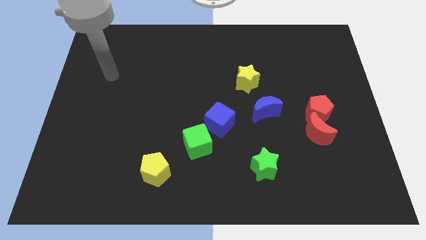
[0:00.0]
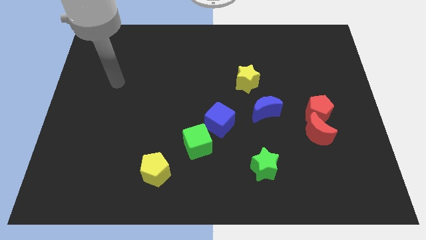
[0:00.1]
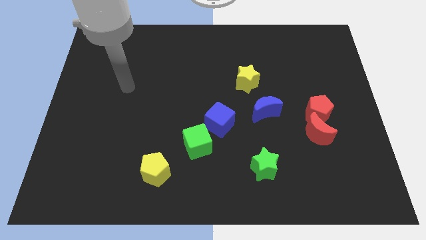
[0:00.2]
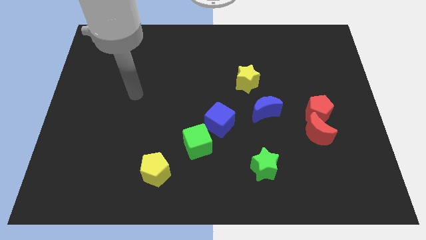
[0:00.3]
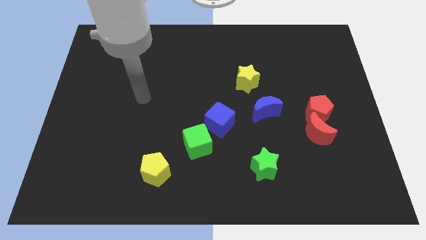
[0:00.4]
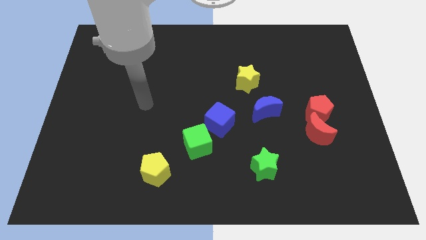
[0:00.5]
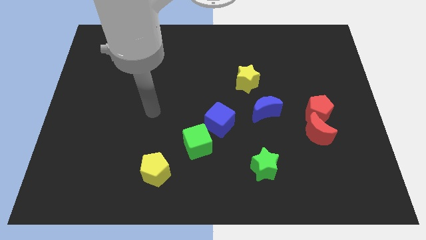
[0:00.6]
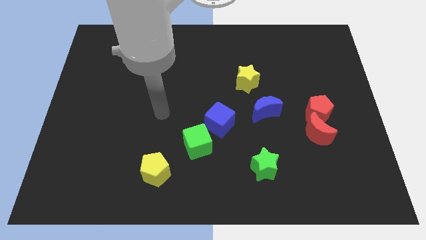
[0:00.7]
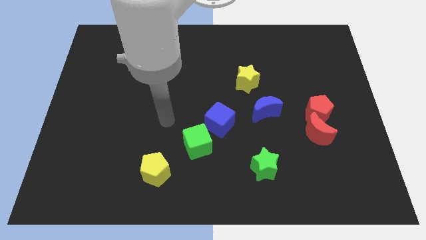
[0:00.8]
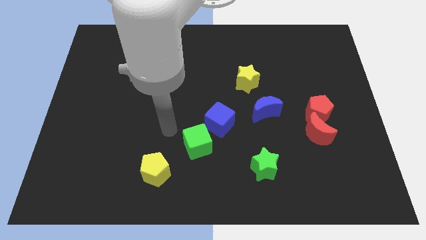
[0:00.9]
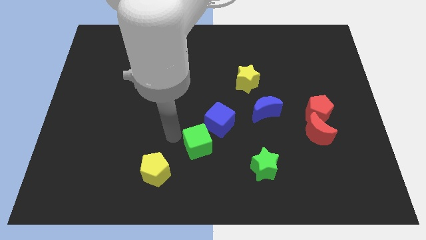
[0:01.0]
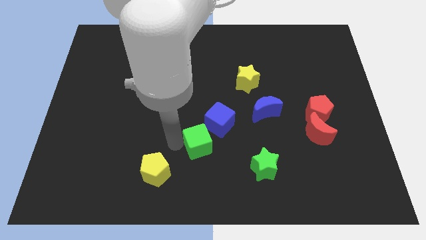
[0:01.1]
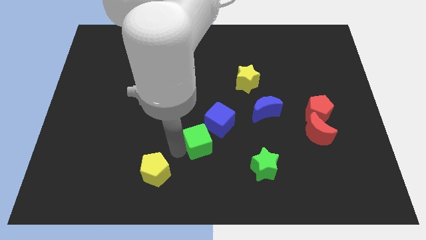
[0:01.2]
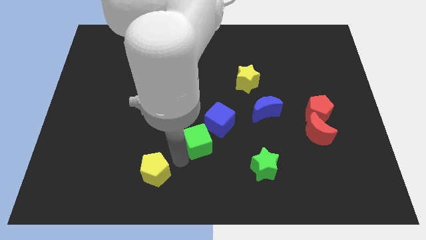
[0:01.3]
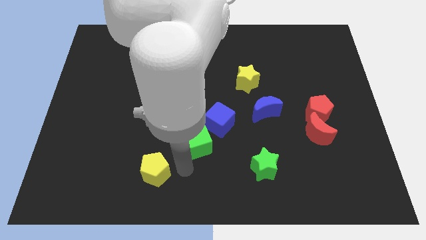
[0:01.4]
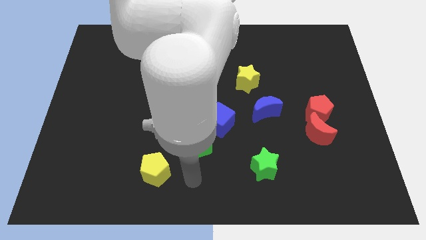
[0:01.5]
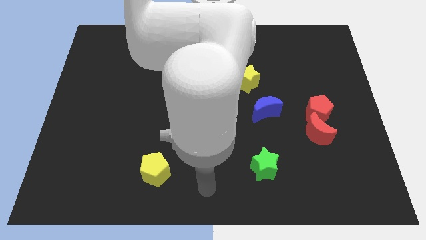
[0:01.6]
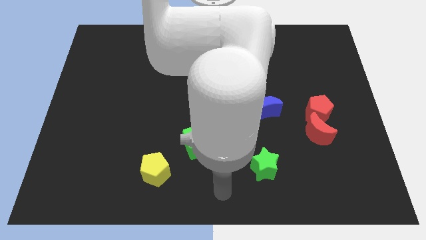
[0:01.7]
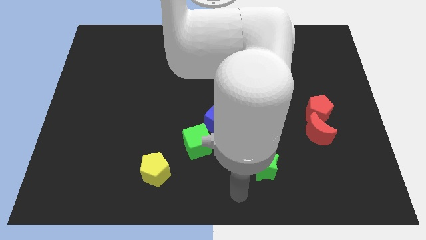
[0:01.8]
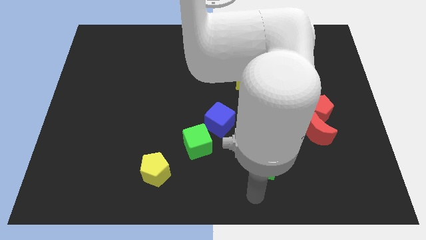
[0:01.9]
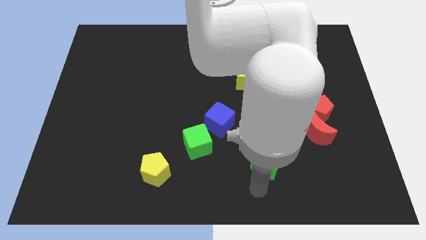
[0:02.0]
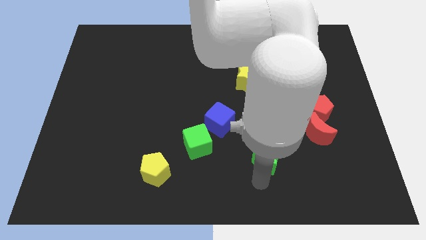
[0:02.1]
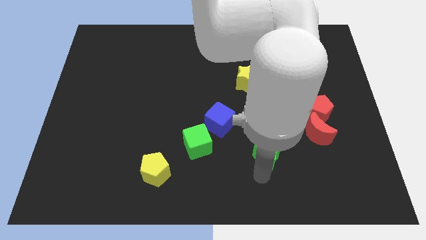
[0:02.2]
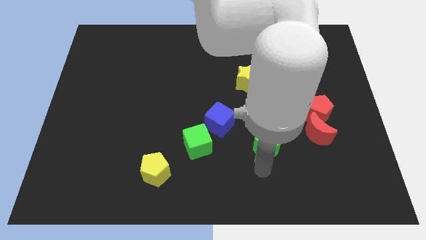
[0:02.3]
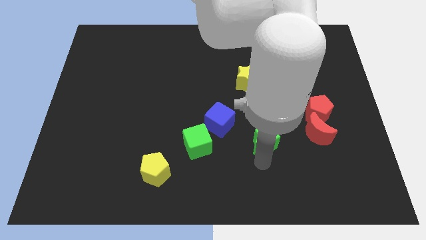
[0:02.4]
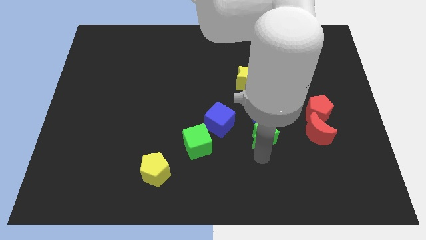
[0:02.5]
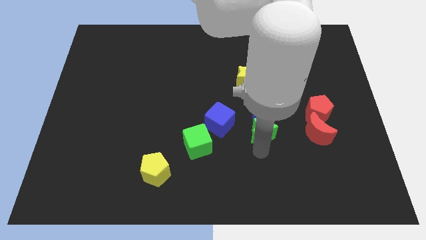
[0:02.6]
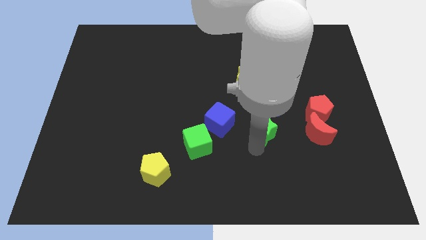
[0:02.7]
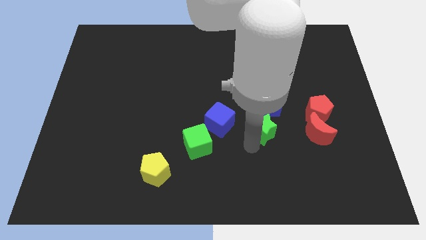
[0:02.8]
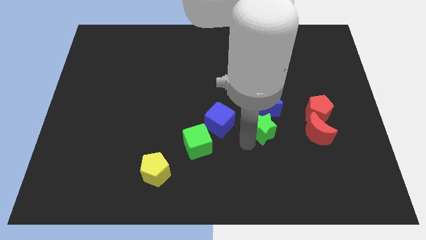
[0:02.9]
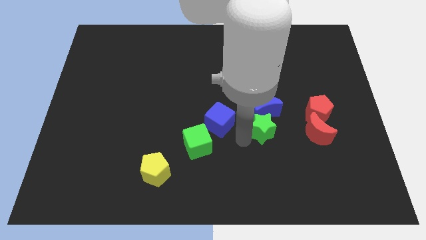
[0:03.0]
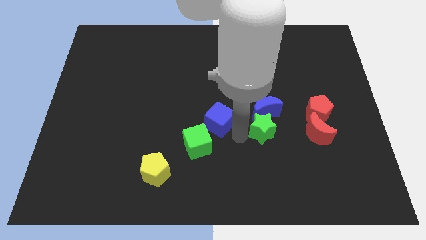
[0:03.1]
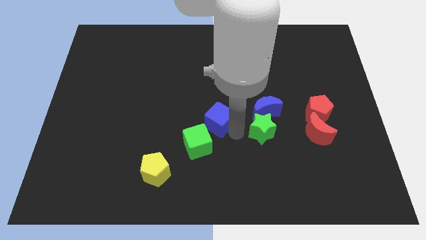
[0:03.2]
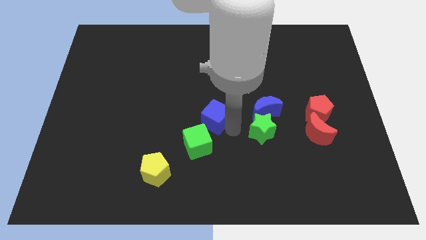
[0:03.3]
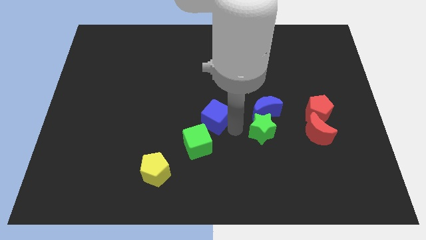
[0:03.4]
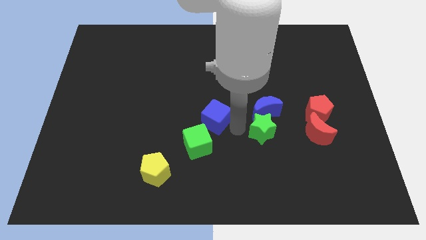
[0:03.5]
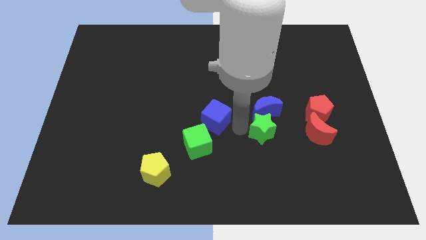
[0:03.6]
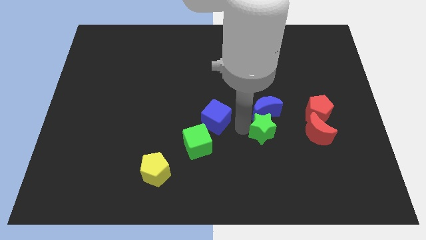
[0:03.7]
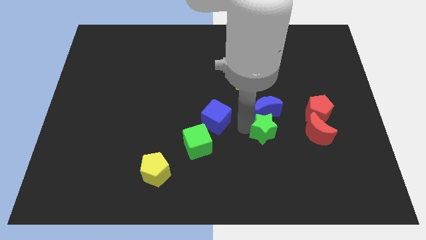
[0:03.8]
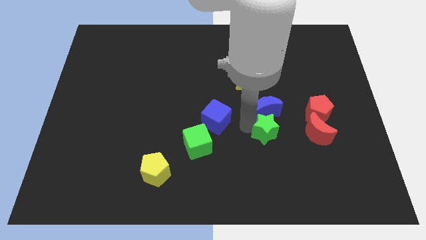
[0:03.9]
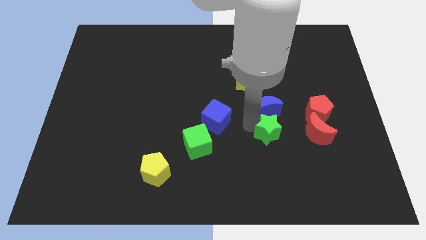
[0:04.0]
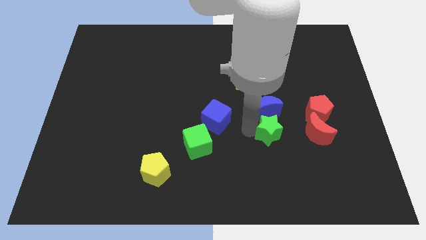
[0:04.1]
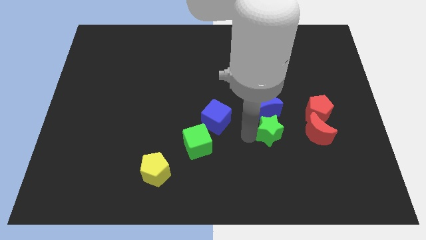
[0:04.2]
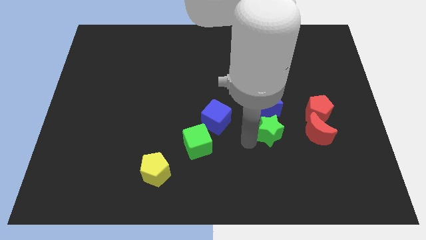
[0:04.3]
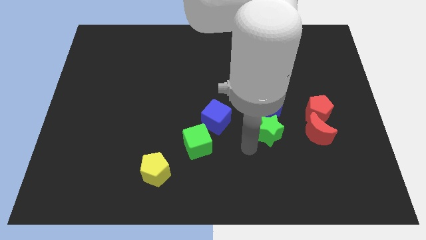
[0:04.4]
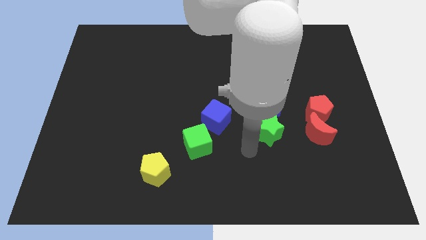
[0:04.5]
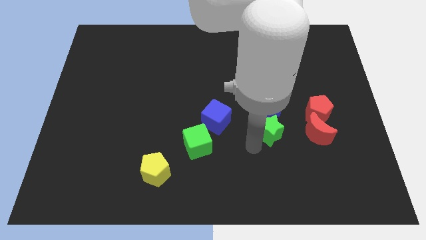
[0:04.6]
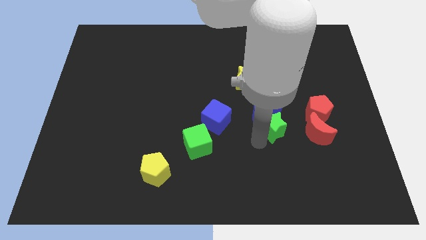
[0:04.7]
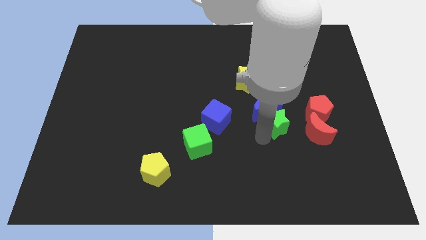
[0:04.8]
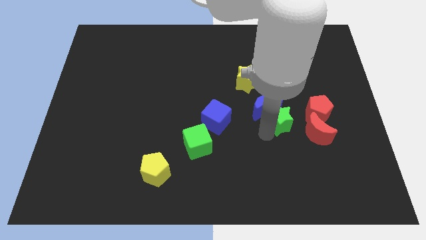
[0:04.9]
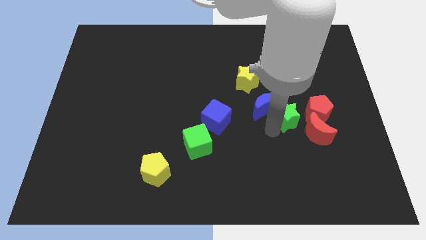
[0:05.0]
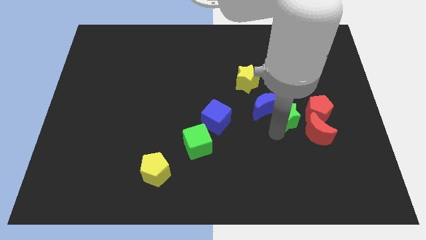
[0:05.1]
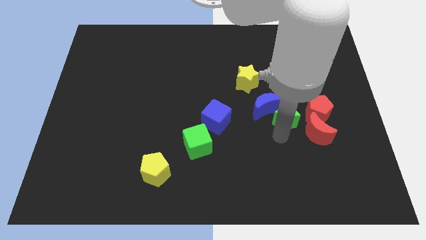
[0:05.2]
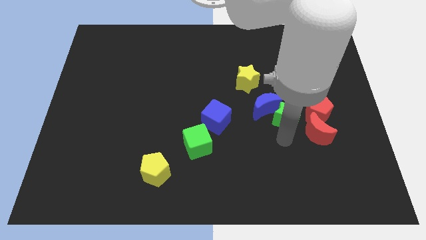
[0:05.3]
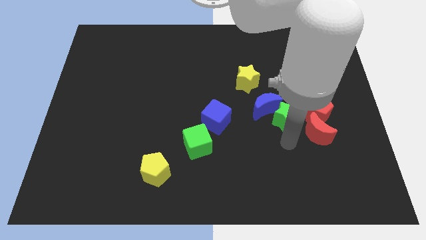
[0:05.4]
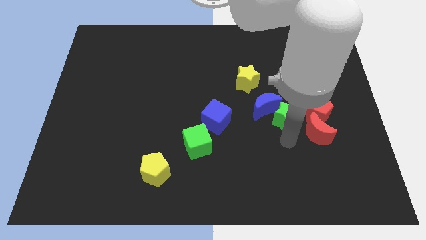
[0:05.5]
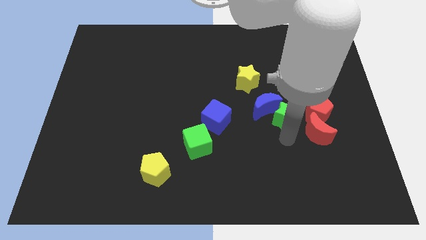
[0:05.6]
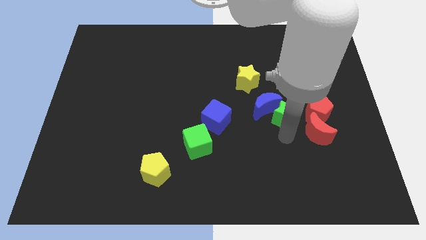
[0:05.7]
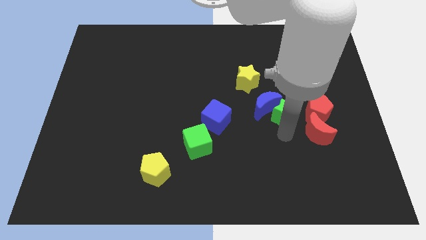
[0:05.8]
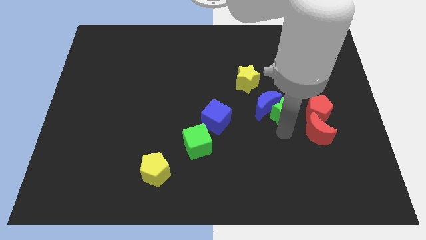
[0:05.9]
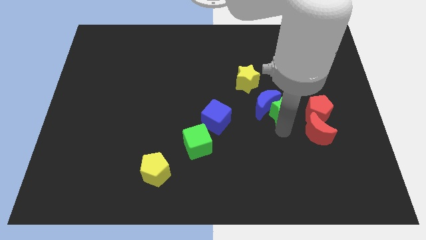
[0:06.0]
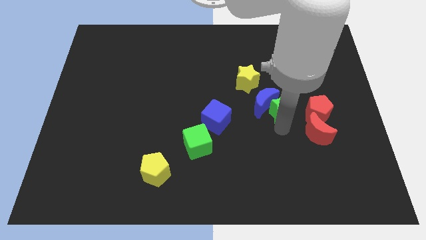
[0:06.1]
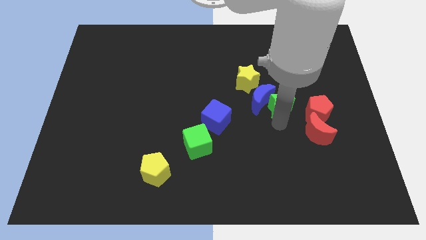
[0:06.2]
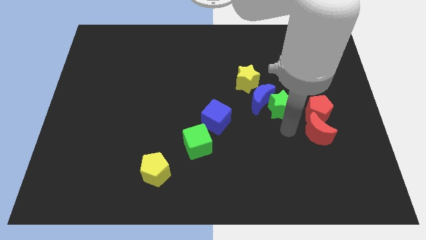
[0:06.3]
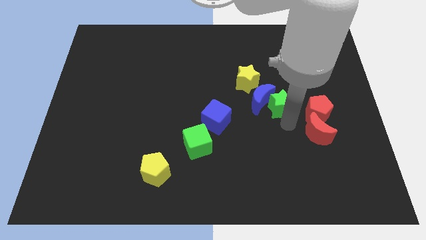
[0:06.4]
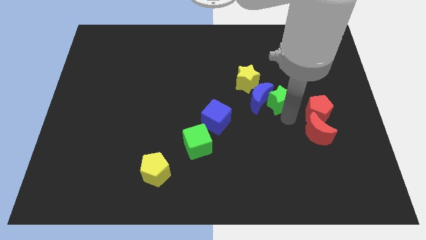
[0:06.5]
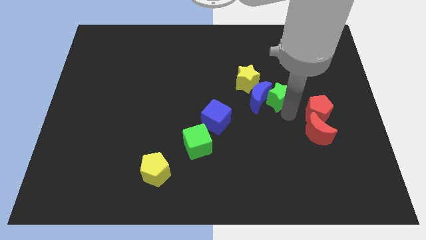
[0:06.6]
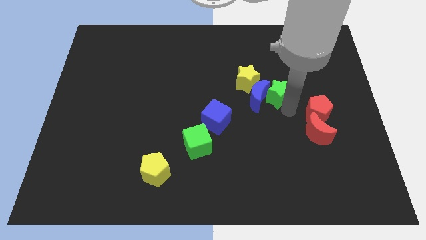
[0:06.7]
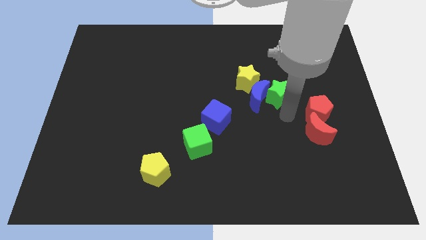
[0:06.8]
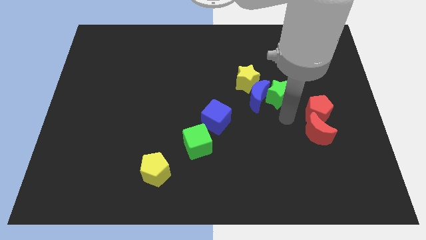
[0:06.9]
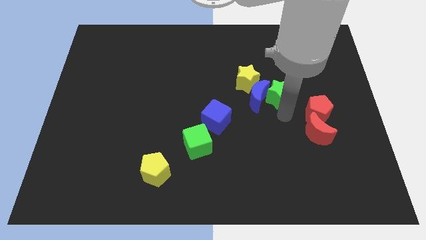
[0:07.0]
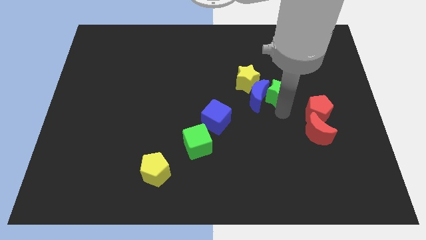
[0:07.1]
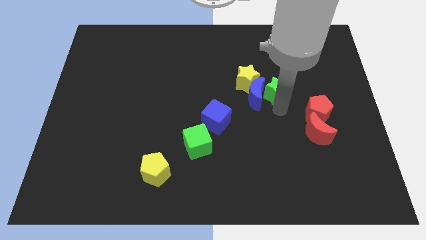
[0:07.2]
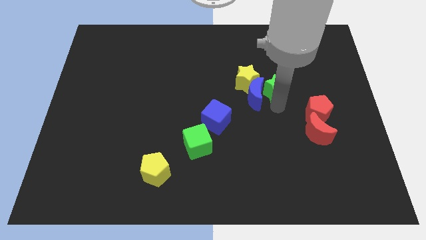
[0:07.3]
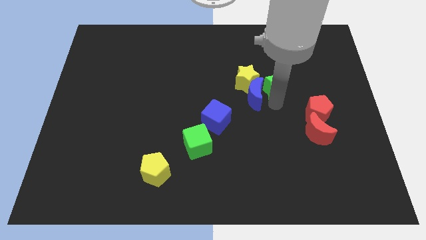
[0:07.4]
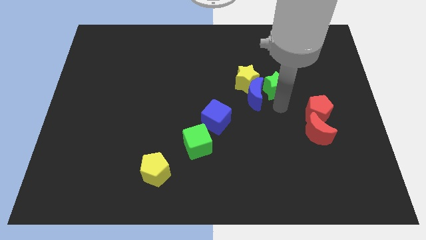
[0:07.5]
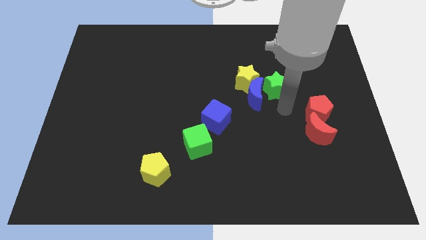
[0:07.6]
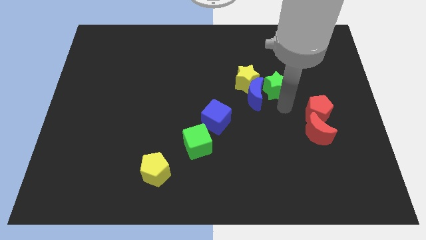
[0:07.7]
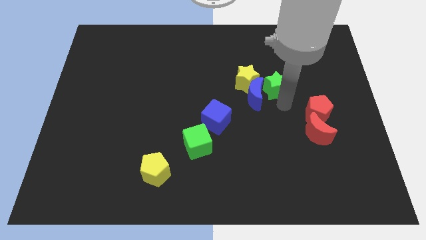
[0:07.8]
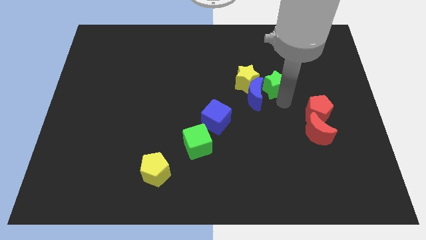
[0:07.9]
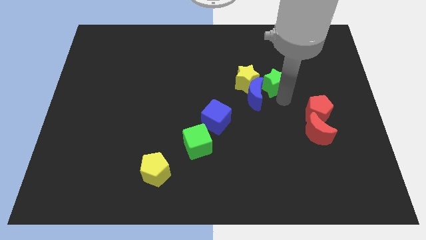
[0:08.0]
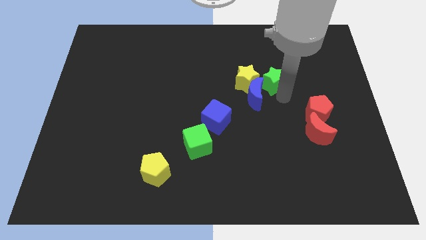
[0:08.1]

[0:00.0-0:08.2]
slide the green star to the top right of the yellow star
